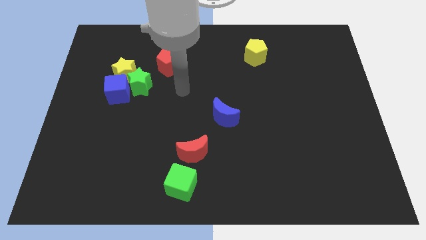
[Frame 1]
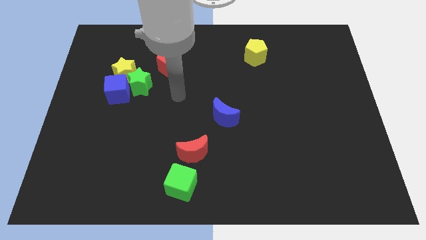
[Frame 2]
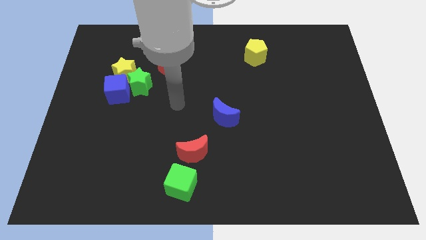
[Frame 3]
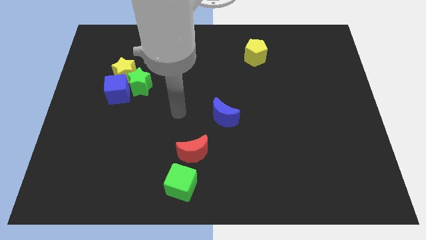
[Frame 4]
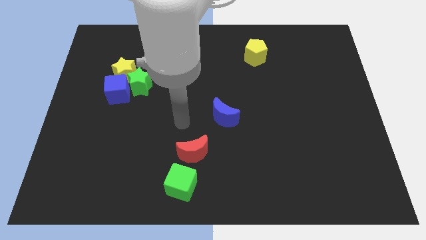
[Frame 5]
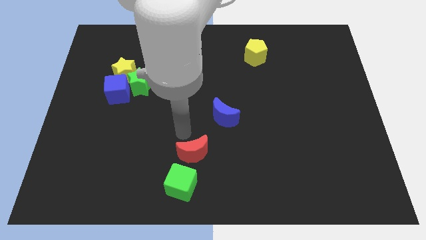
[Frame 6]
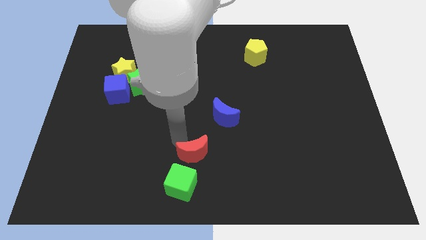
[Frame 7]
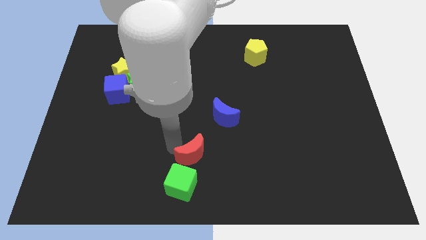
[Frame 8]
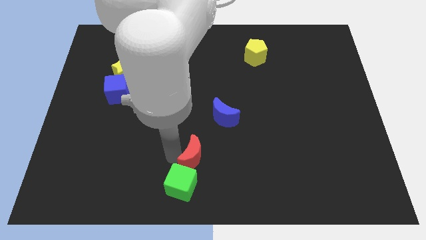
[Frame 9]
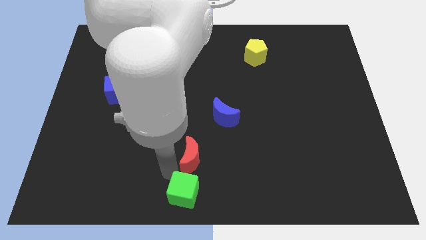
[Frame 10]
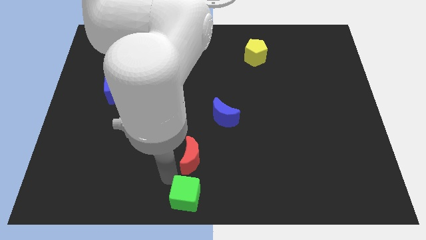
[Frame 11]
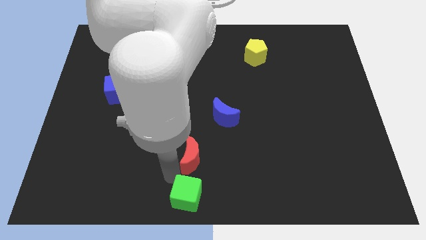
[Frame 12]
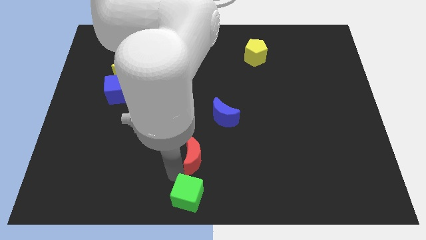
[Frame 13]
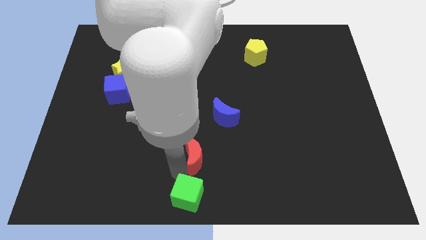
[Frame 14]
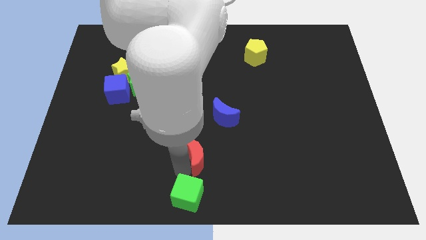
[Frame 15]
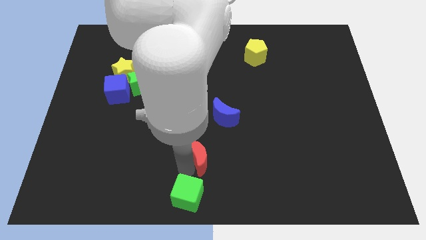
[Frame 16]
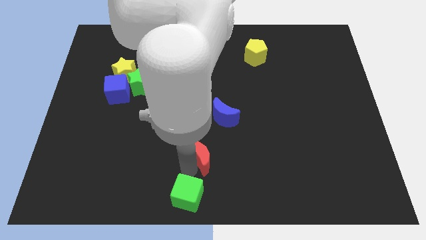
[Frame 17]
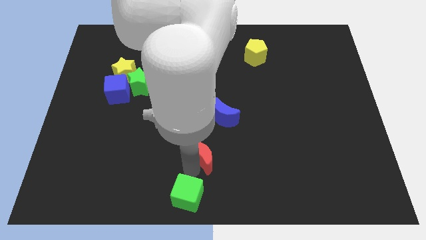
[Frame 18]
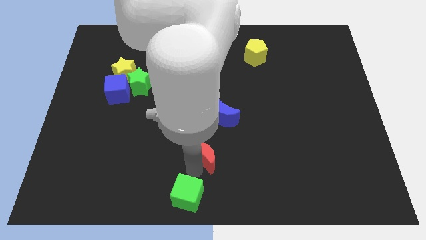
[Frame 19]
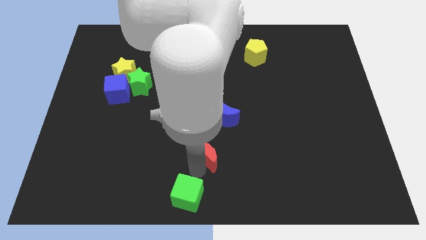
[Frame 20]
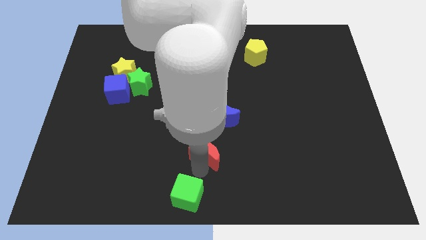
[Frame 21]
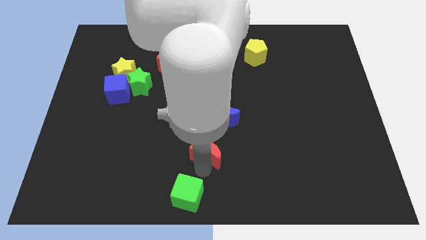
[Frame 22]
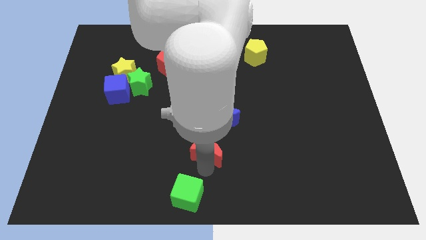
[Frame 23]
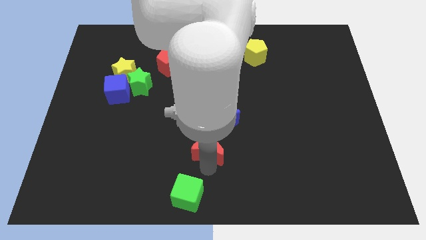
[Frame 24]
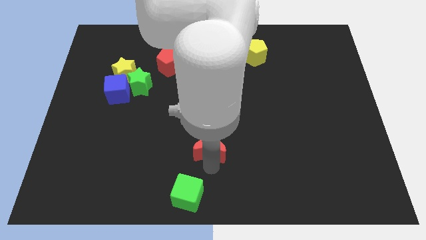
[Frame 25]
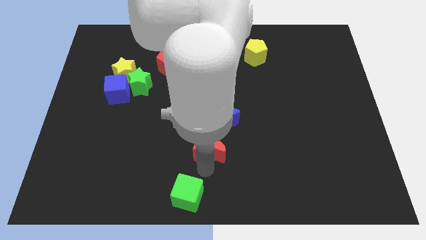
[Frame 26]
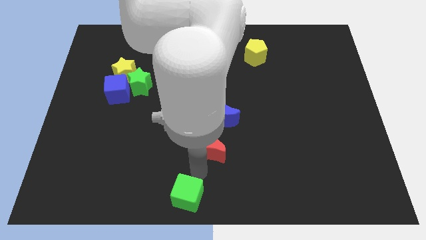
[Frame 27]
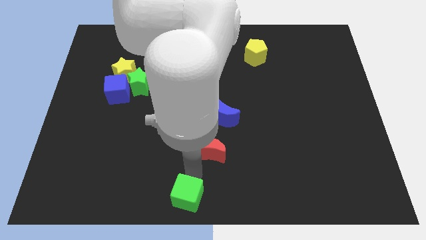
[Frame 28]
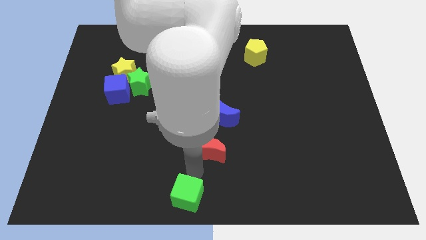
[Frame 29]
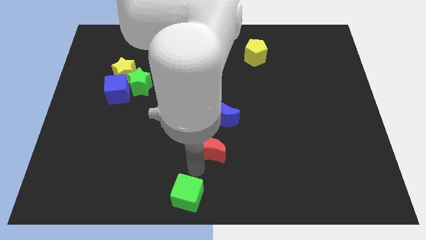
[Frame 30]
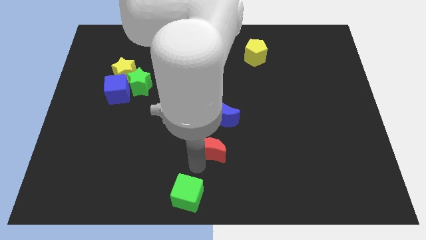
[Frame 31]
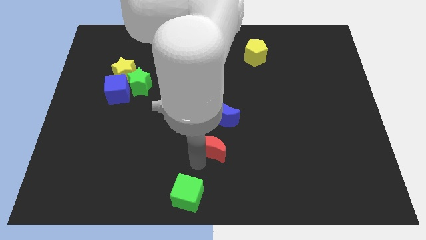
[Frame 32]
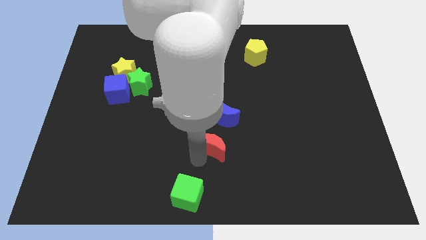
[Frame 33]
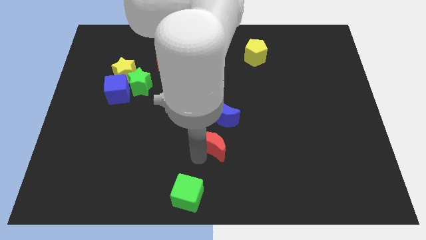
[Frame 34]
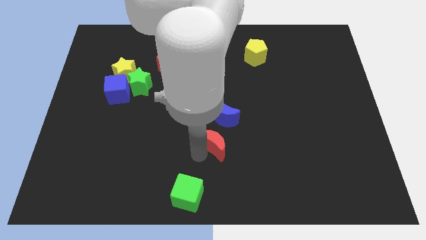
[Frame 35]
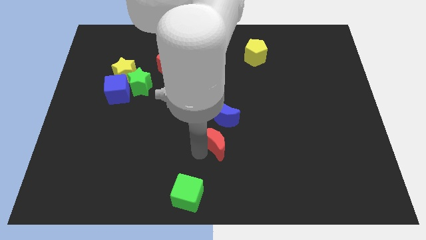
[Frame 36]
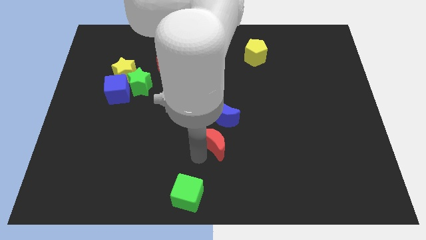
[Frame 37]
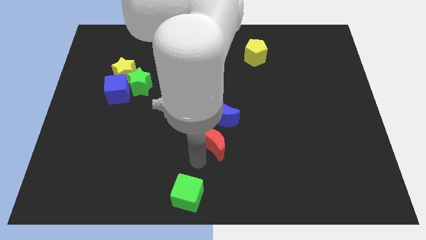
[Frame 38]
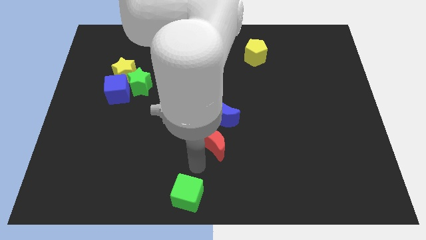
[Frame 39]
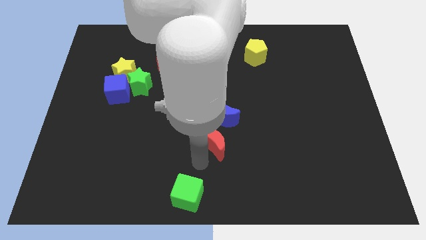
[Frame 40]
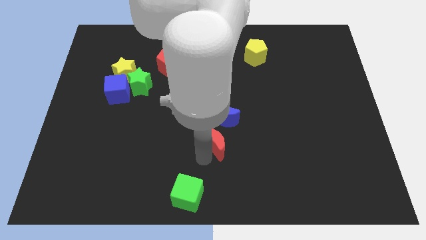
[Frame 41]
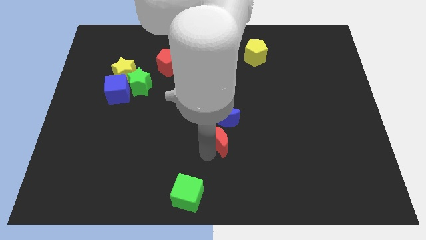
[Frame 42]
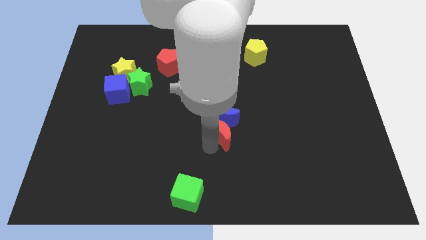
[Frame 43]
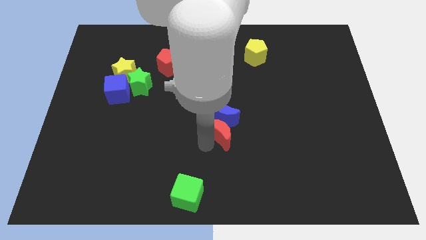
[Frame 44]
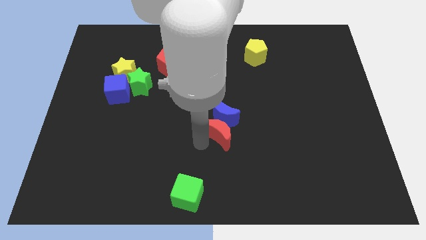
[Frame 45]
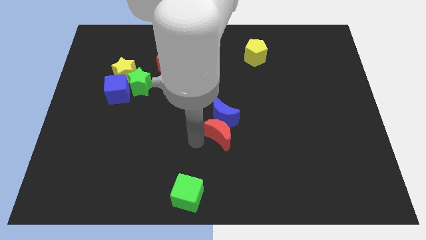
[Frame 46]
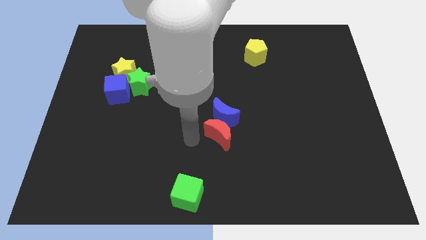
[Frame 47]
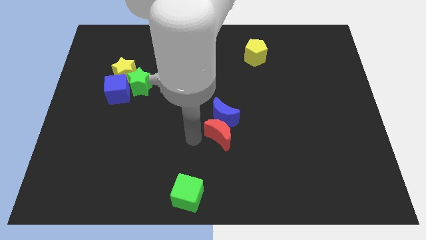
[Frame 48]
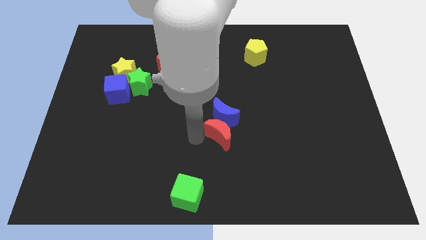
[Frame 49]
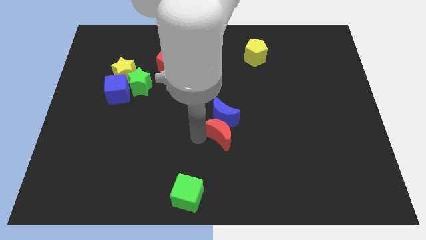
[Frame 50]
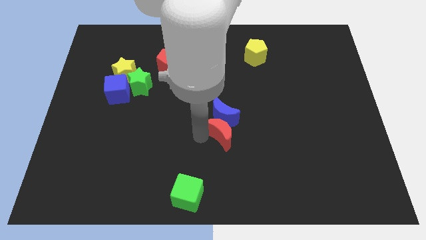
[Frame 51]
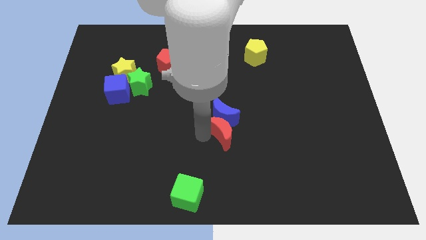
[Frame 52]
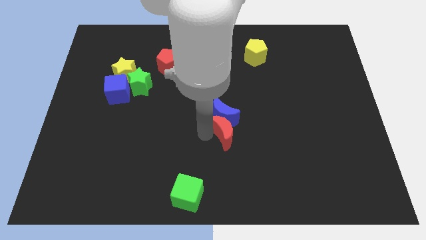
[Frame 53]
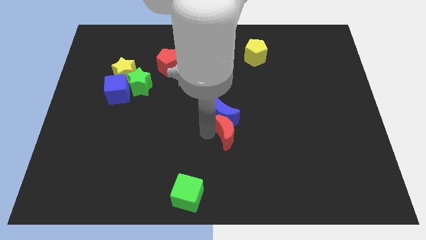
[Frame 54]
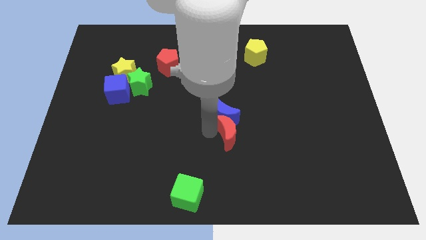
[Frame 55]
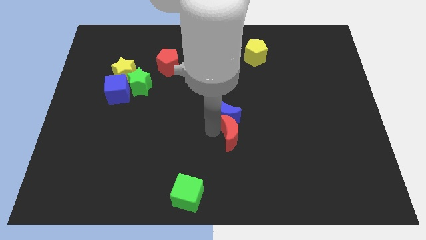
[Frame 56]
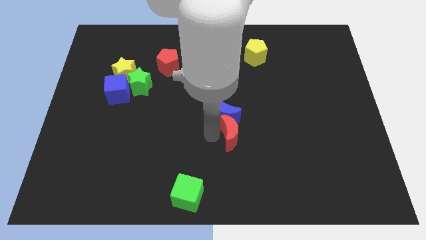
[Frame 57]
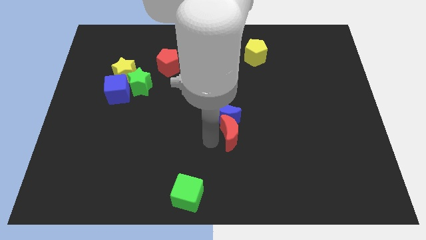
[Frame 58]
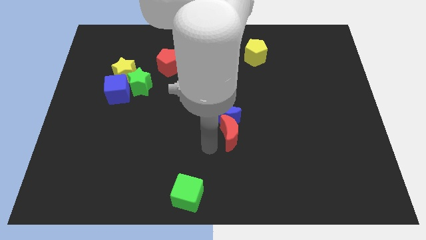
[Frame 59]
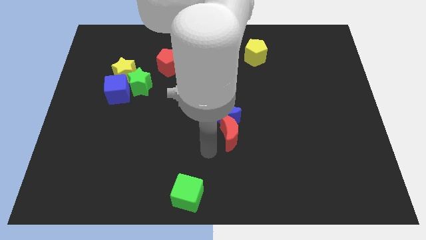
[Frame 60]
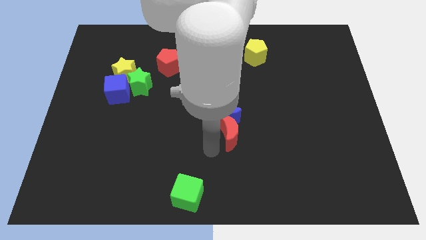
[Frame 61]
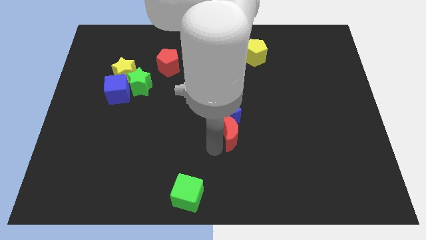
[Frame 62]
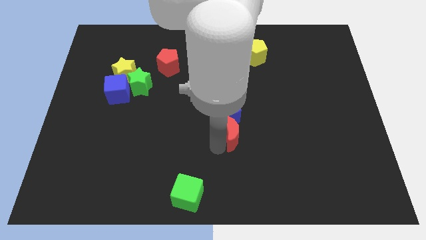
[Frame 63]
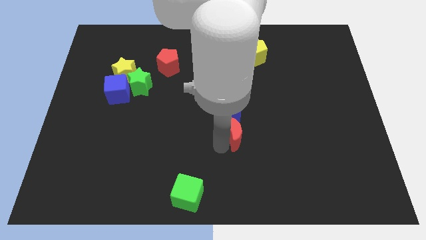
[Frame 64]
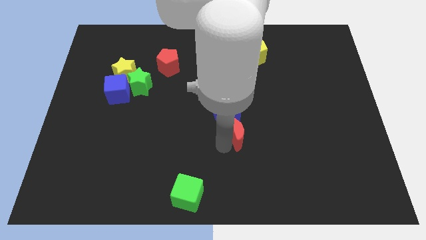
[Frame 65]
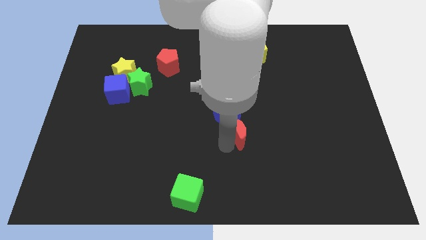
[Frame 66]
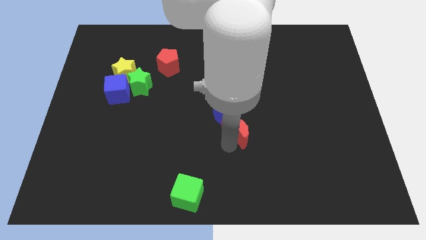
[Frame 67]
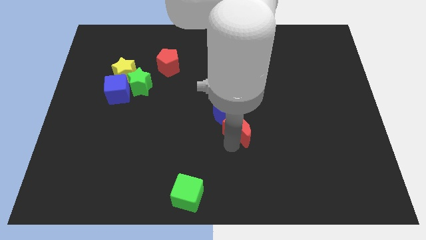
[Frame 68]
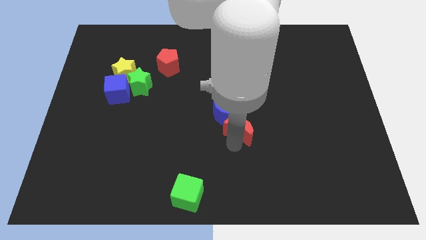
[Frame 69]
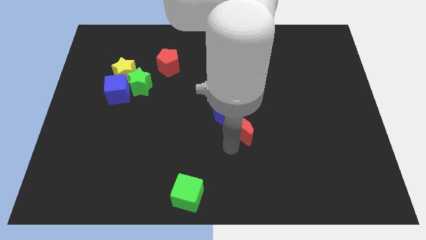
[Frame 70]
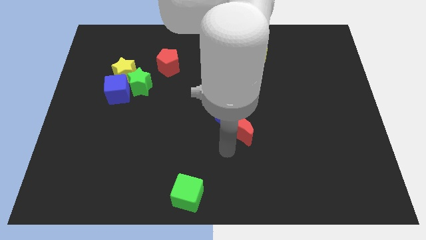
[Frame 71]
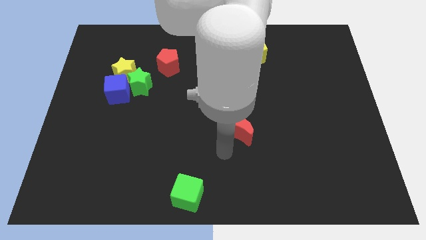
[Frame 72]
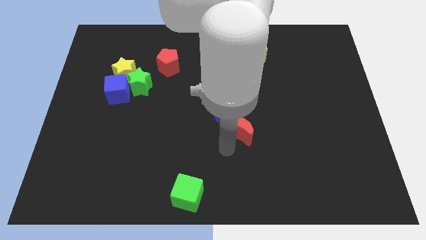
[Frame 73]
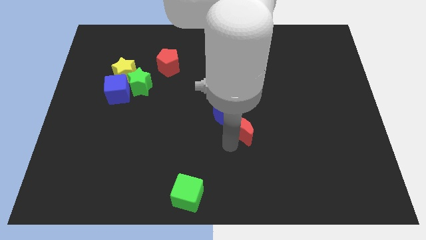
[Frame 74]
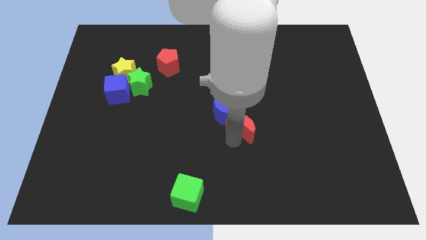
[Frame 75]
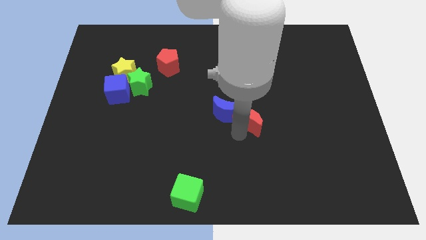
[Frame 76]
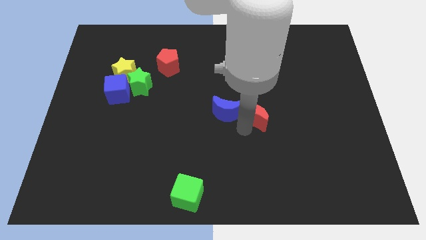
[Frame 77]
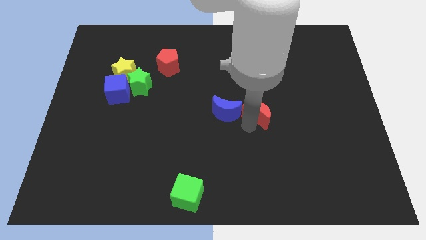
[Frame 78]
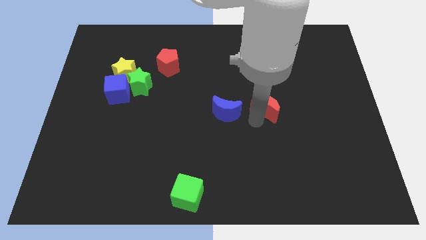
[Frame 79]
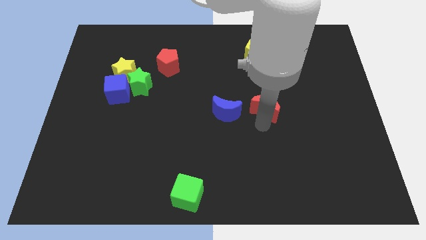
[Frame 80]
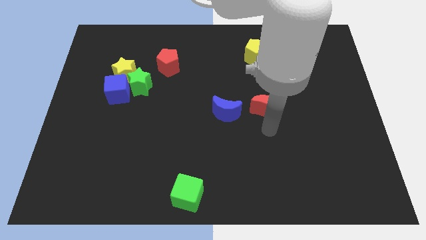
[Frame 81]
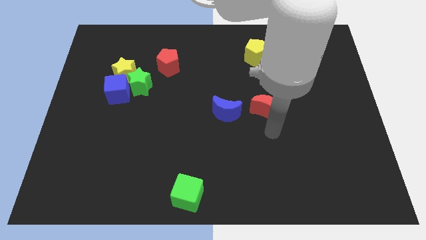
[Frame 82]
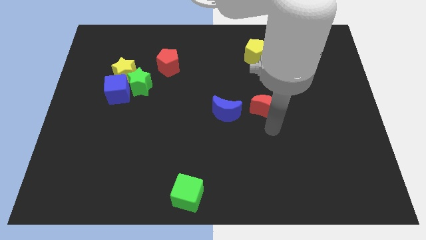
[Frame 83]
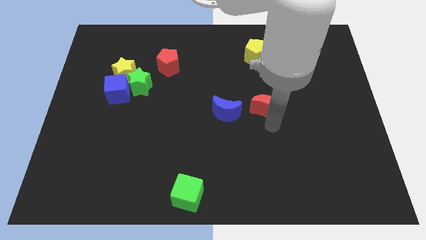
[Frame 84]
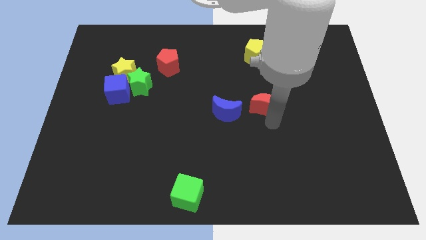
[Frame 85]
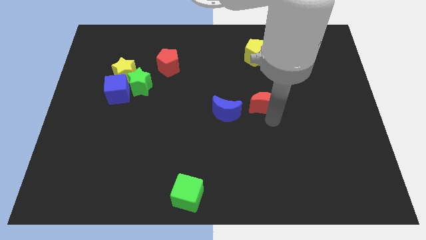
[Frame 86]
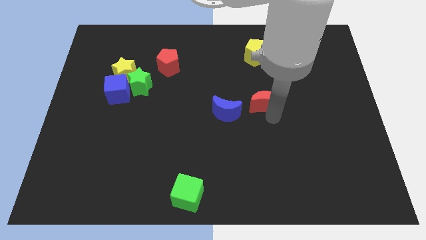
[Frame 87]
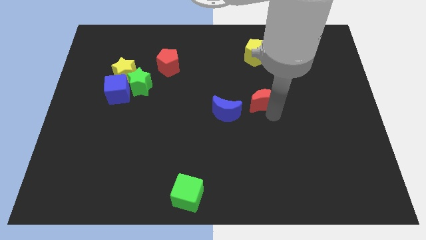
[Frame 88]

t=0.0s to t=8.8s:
move the red moon to the bottom side of the yellow pentagon
